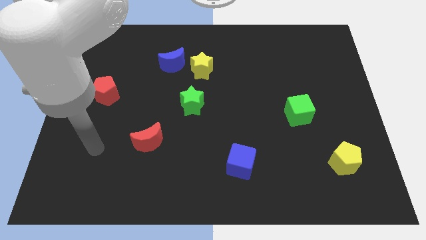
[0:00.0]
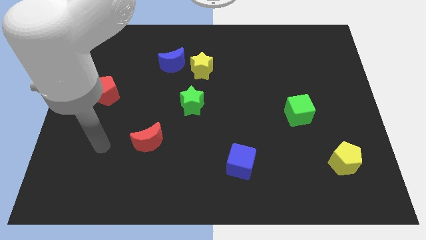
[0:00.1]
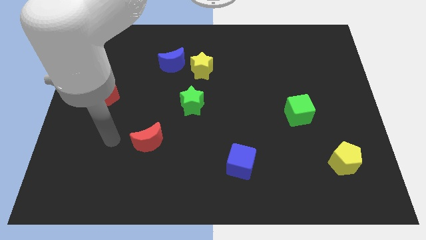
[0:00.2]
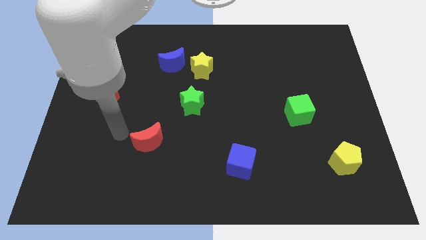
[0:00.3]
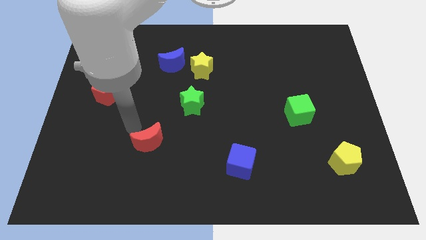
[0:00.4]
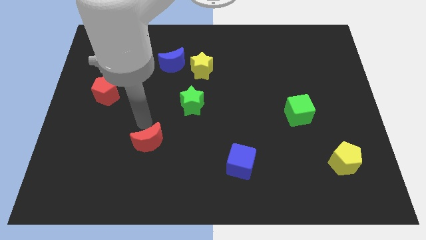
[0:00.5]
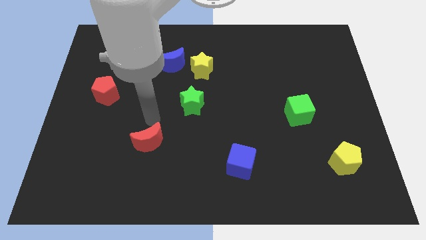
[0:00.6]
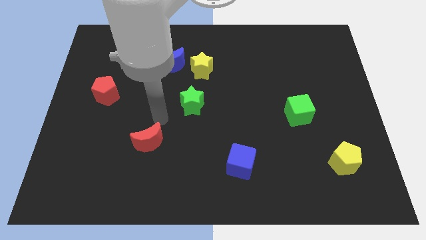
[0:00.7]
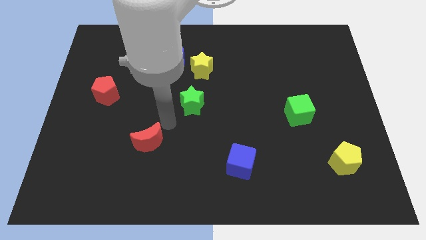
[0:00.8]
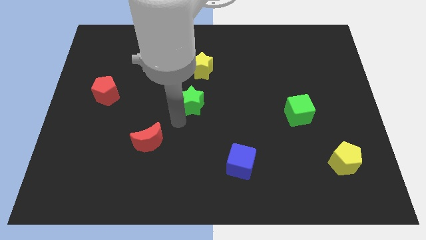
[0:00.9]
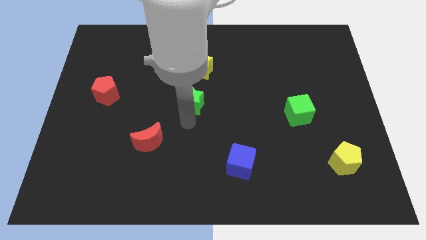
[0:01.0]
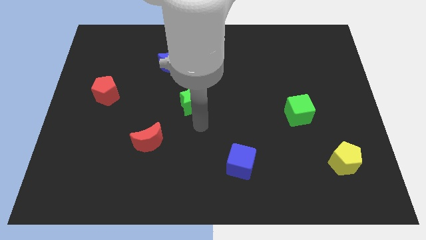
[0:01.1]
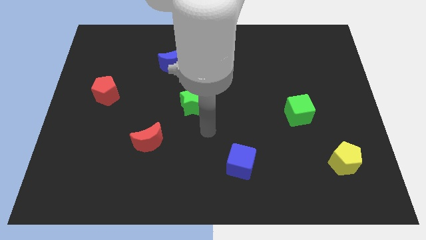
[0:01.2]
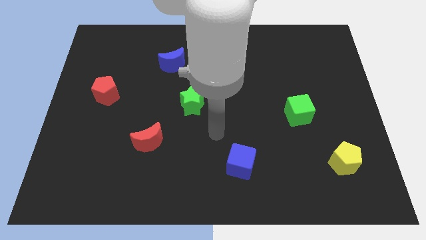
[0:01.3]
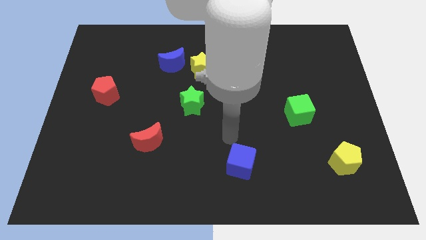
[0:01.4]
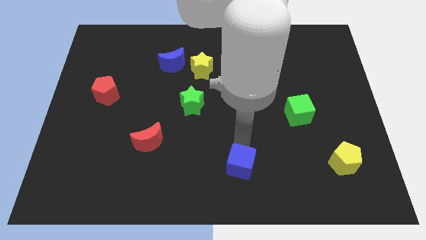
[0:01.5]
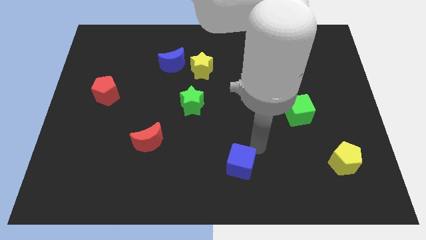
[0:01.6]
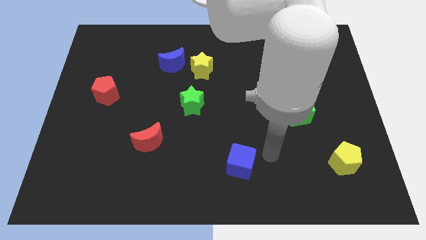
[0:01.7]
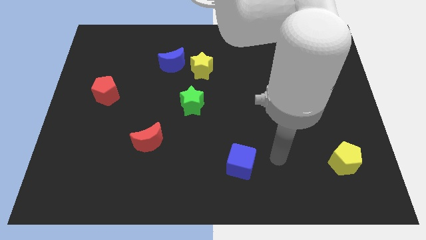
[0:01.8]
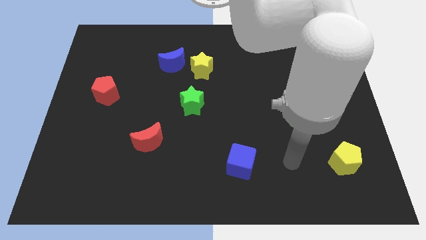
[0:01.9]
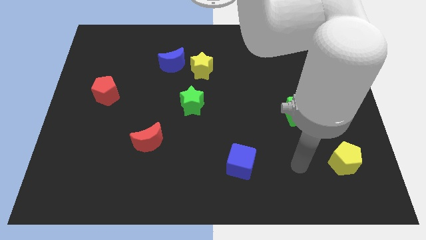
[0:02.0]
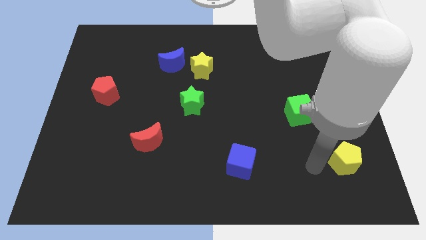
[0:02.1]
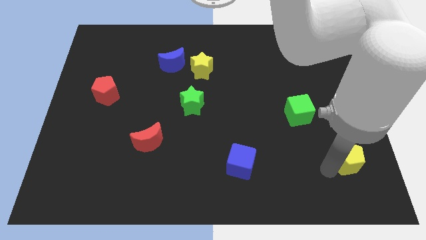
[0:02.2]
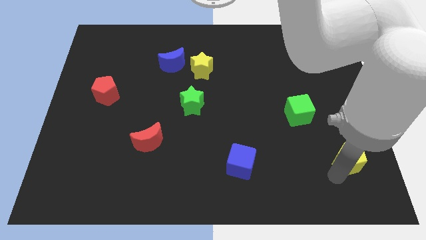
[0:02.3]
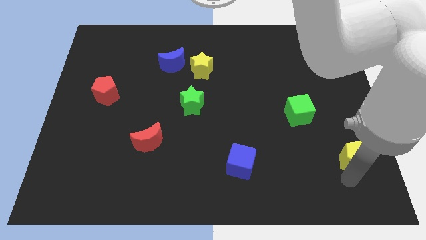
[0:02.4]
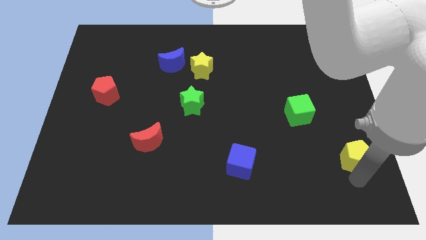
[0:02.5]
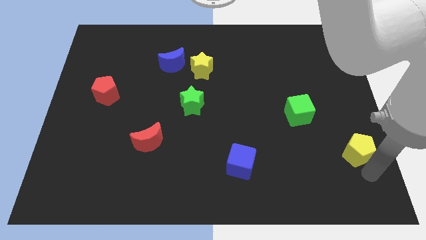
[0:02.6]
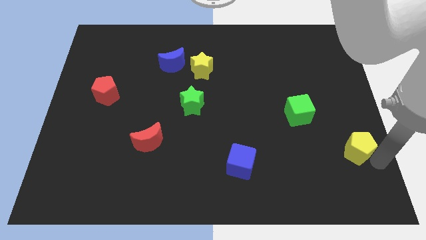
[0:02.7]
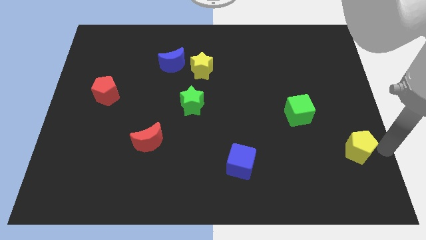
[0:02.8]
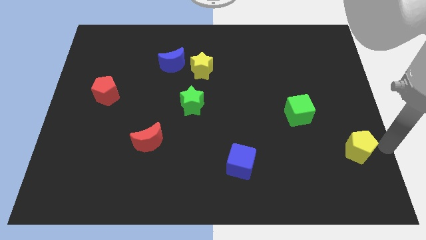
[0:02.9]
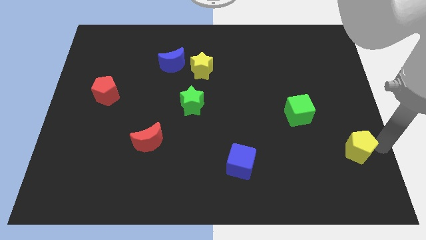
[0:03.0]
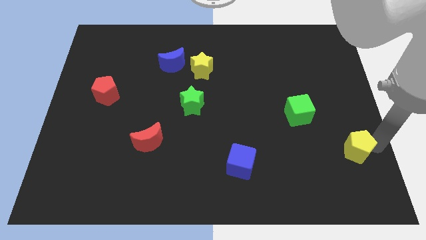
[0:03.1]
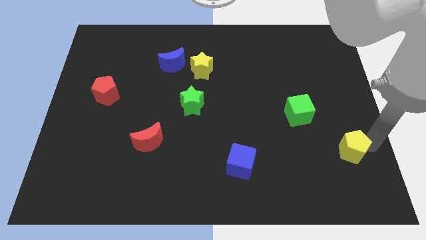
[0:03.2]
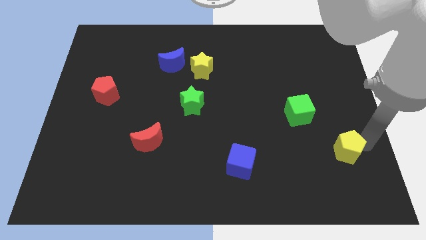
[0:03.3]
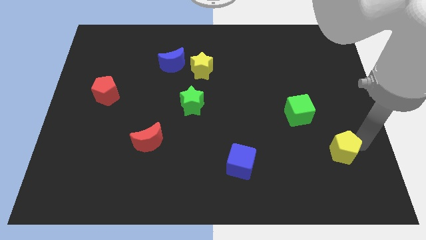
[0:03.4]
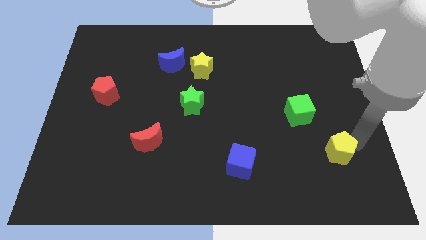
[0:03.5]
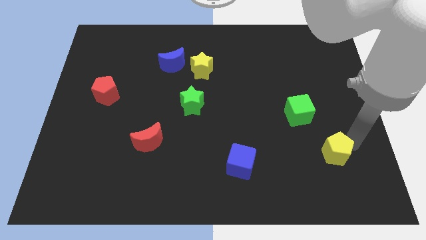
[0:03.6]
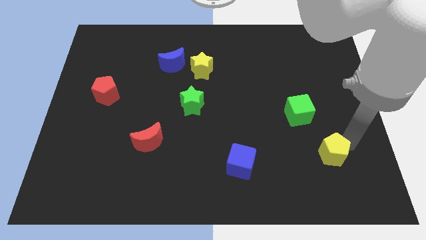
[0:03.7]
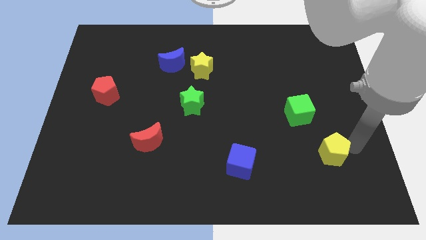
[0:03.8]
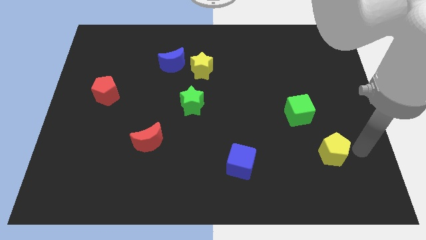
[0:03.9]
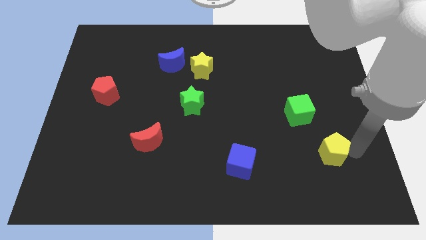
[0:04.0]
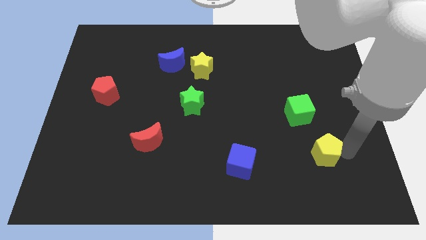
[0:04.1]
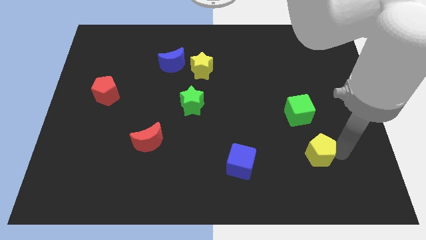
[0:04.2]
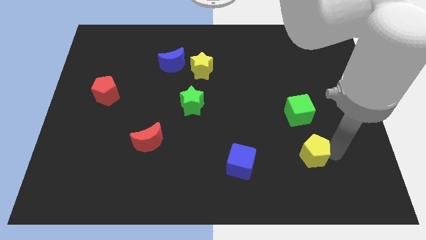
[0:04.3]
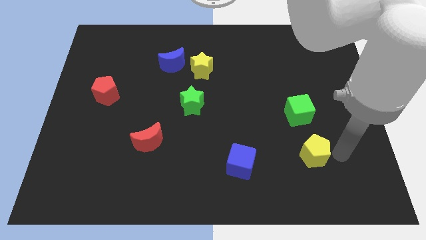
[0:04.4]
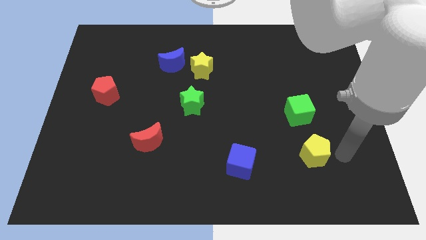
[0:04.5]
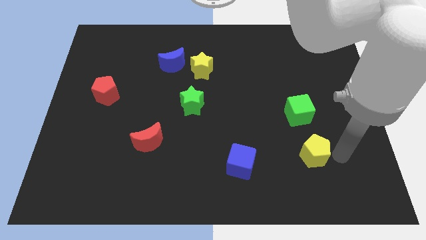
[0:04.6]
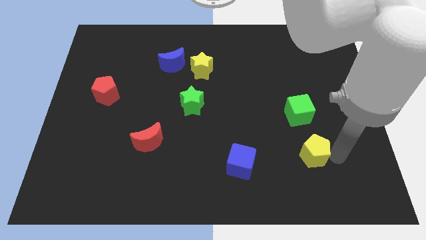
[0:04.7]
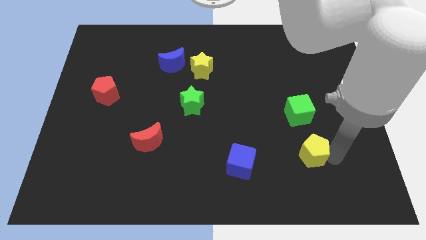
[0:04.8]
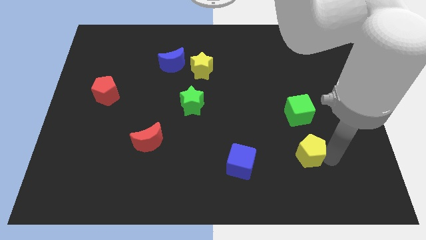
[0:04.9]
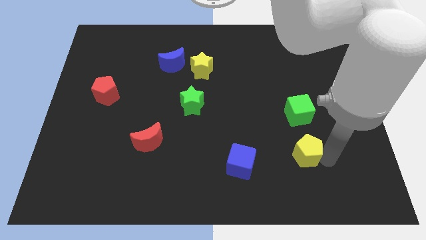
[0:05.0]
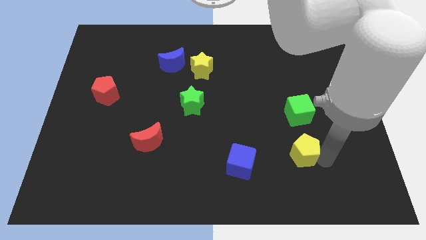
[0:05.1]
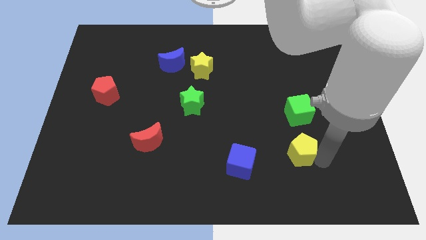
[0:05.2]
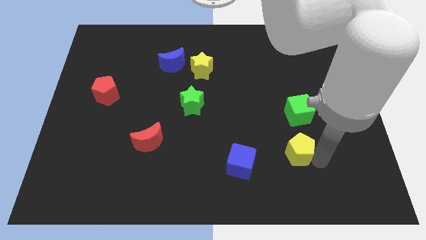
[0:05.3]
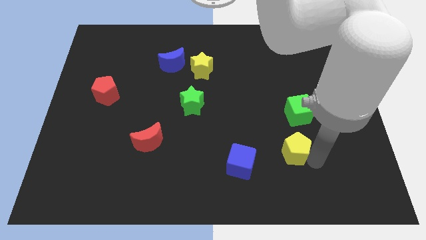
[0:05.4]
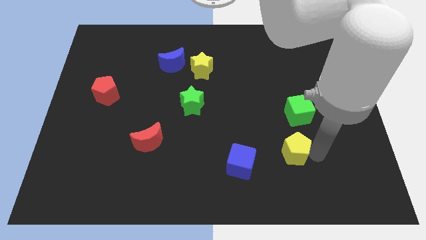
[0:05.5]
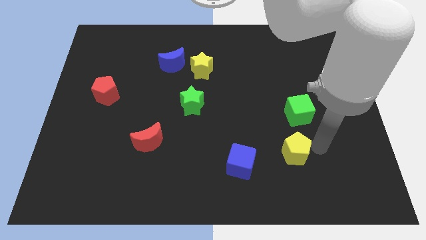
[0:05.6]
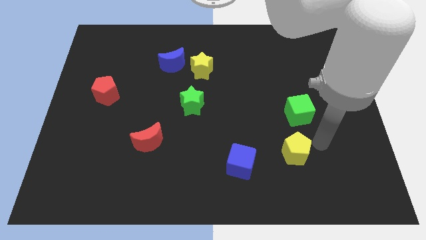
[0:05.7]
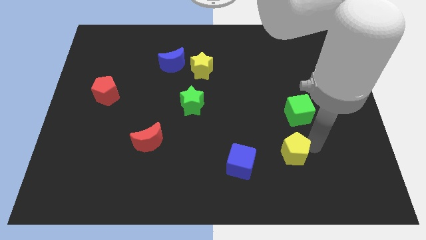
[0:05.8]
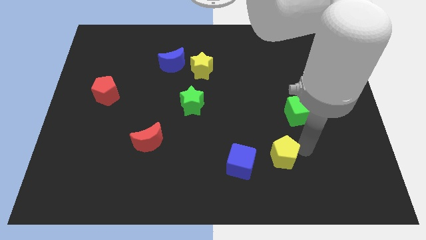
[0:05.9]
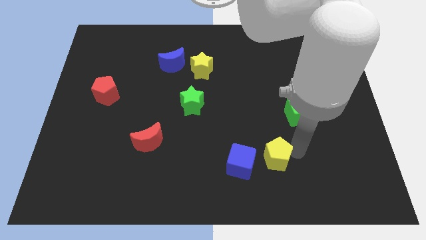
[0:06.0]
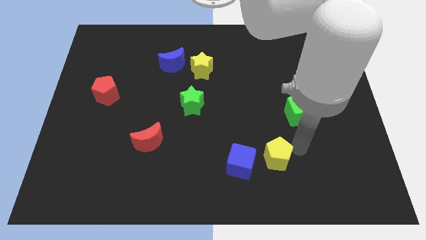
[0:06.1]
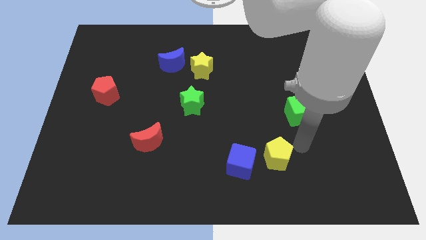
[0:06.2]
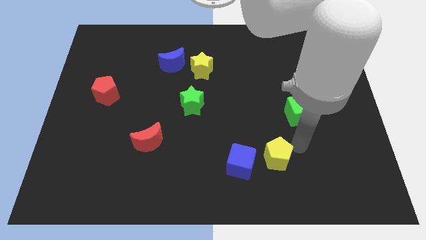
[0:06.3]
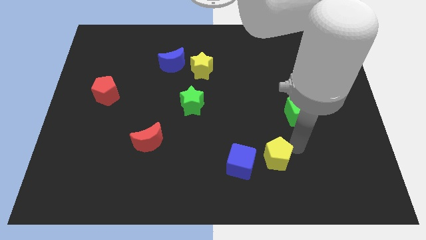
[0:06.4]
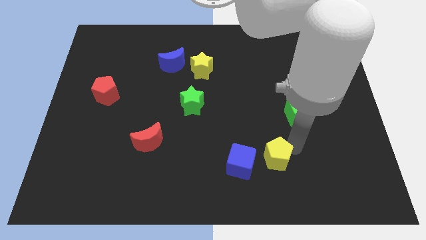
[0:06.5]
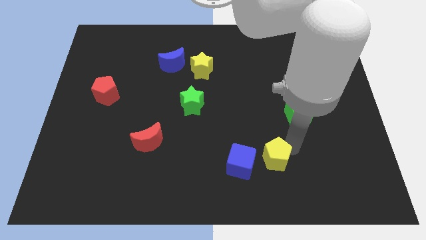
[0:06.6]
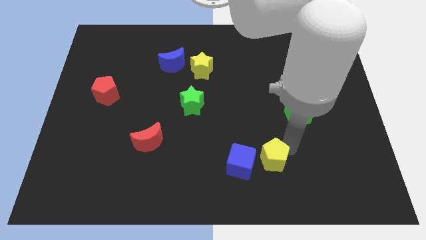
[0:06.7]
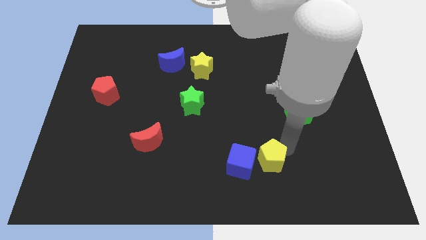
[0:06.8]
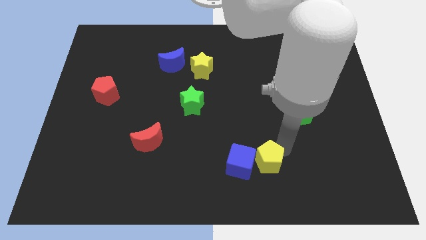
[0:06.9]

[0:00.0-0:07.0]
push the yellow pentagon next to the blue cube

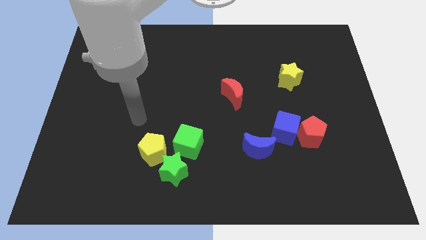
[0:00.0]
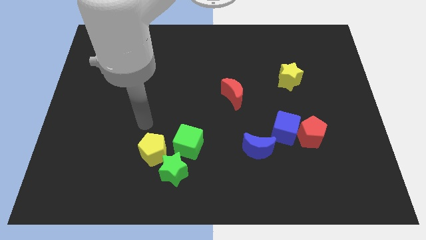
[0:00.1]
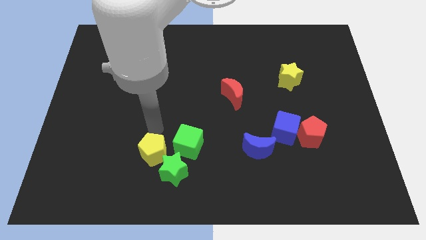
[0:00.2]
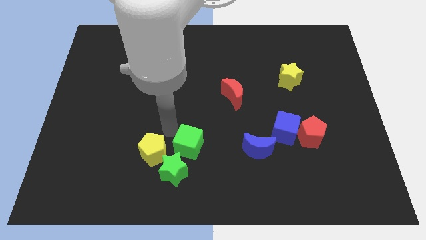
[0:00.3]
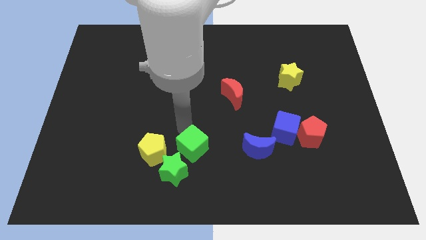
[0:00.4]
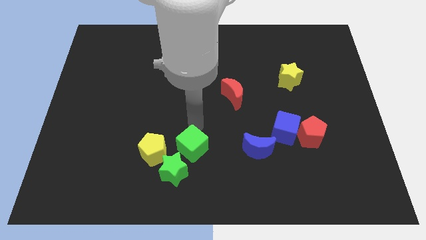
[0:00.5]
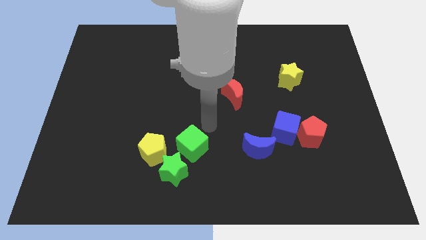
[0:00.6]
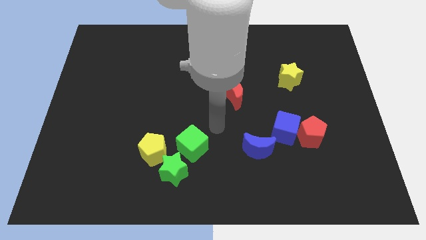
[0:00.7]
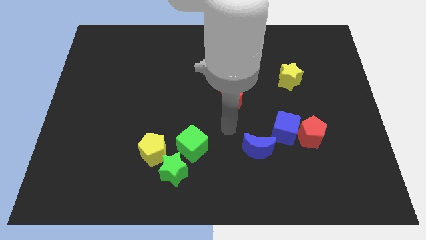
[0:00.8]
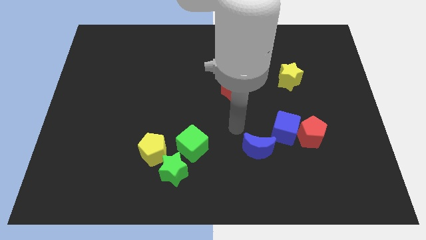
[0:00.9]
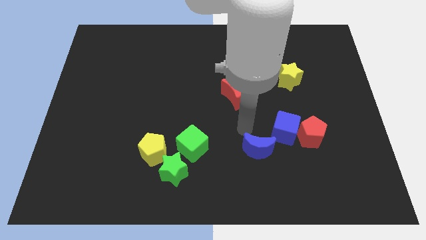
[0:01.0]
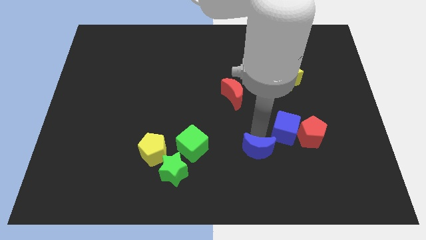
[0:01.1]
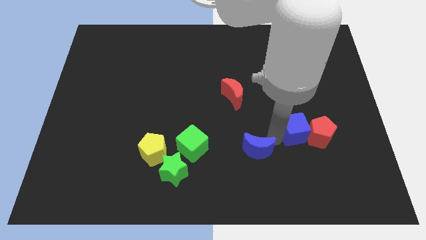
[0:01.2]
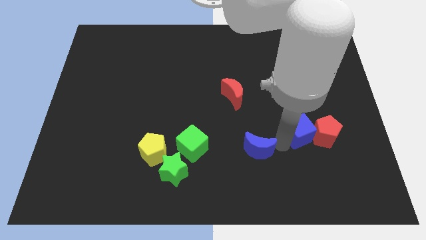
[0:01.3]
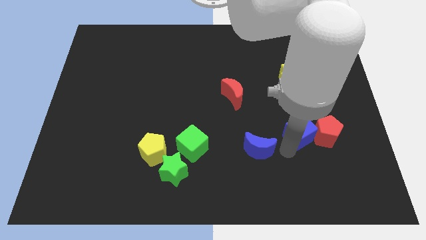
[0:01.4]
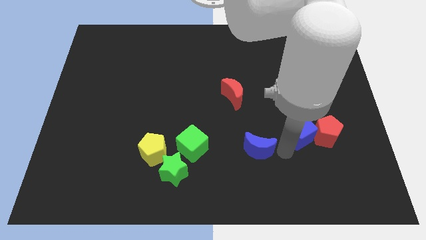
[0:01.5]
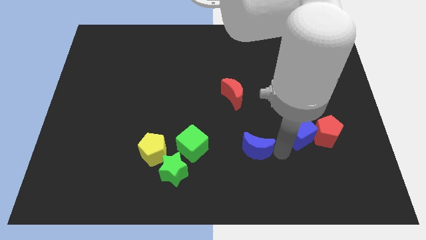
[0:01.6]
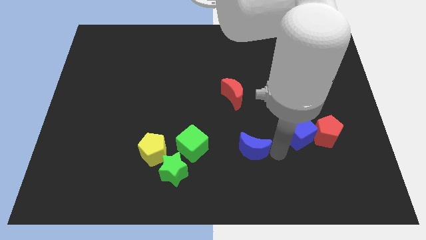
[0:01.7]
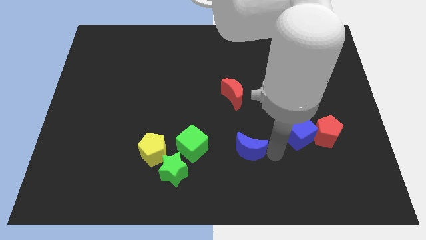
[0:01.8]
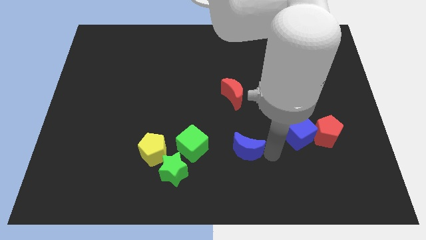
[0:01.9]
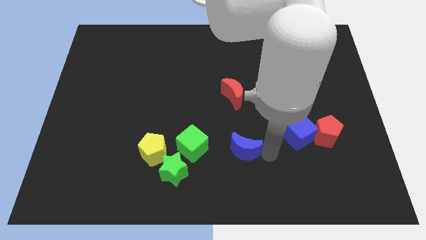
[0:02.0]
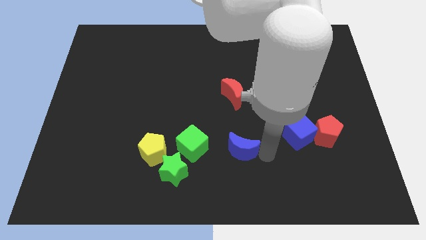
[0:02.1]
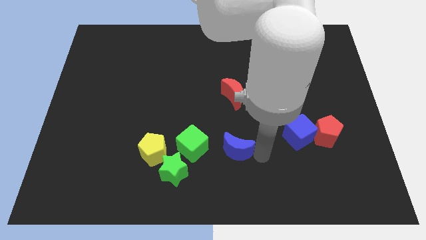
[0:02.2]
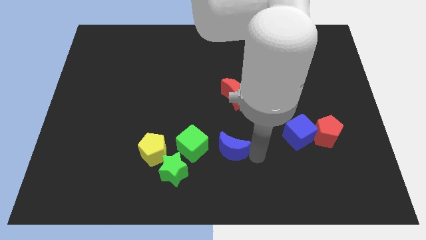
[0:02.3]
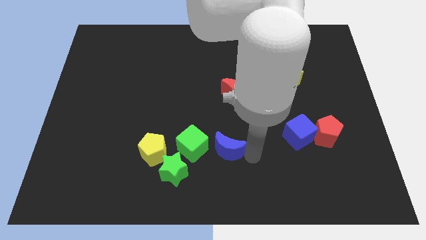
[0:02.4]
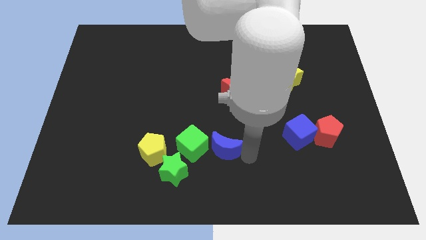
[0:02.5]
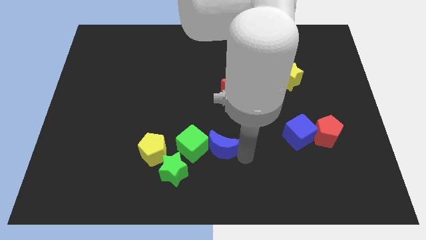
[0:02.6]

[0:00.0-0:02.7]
put the blue moon to the green cube
